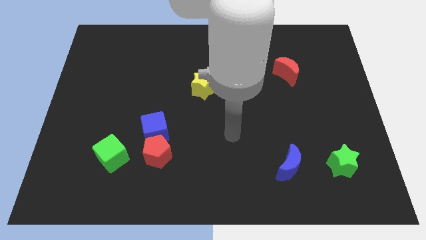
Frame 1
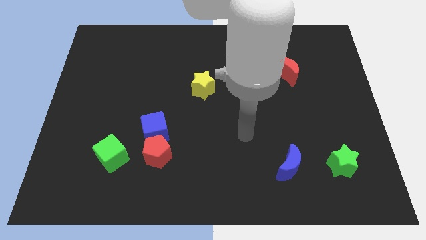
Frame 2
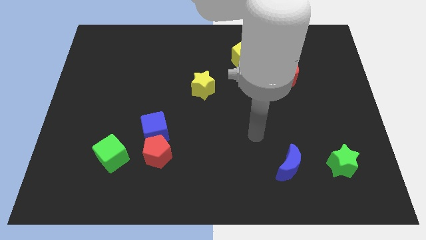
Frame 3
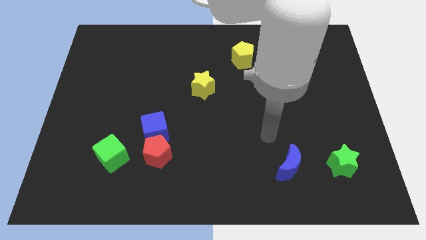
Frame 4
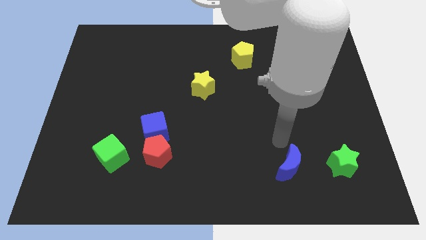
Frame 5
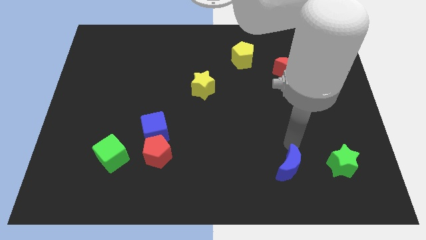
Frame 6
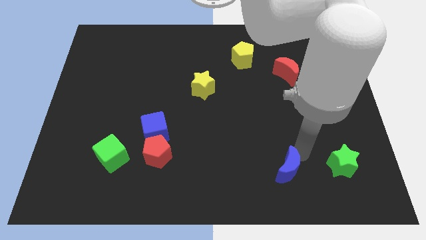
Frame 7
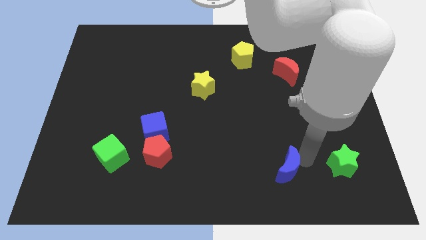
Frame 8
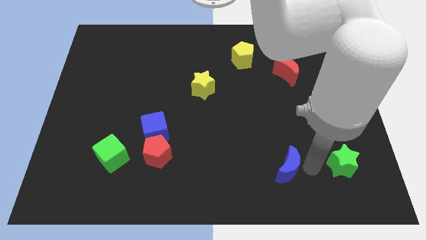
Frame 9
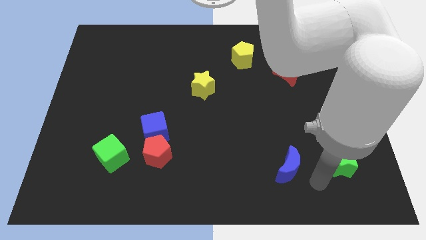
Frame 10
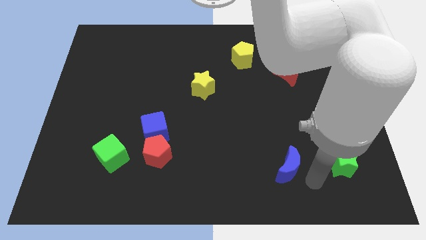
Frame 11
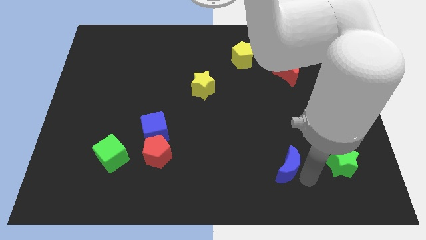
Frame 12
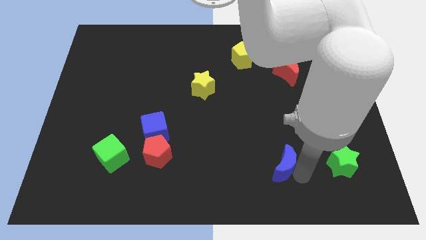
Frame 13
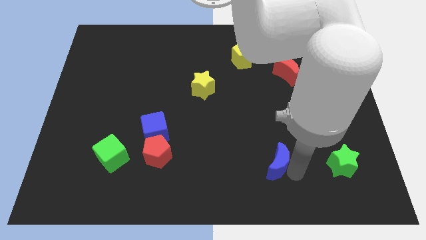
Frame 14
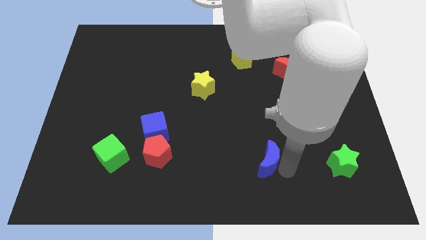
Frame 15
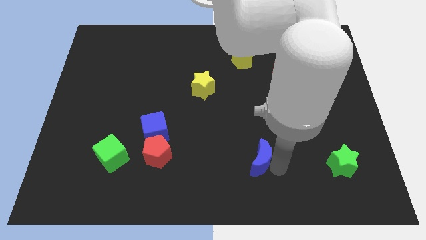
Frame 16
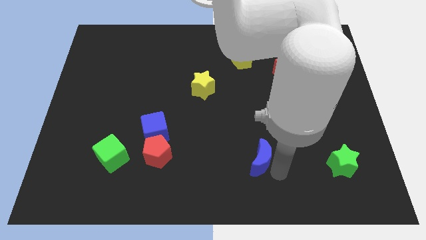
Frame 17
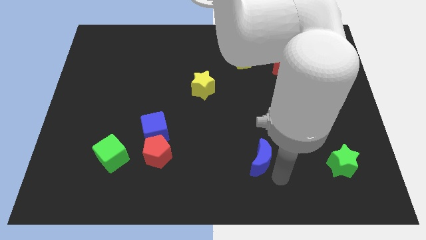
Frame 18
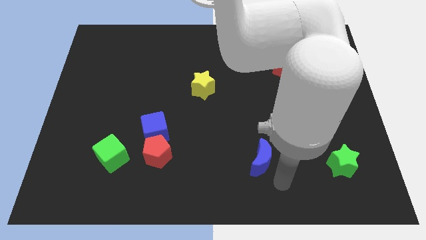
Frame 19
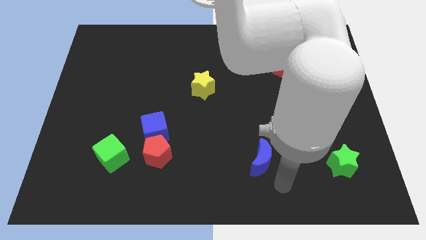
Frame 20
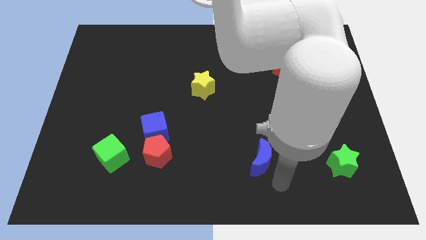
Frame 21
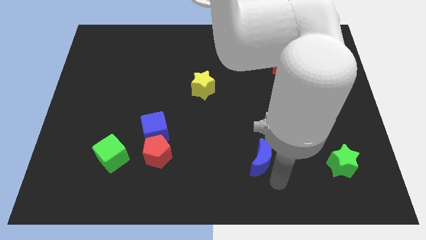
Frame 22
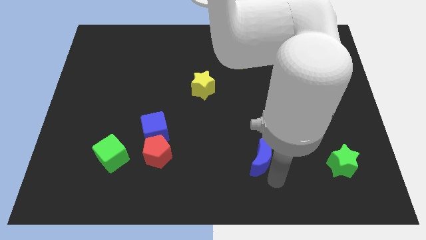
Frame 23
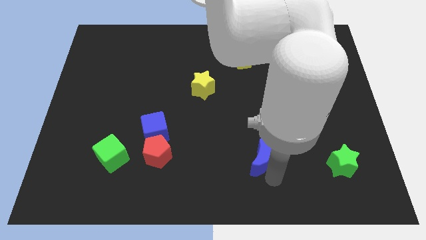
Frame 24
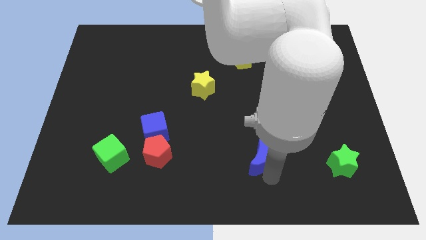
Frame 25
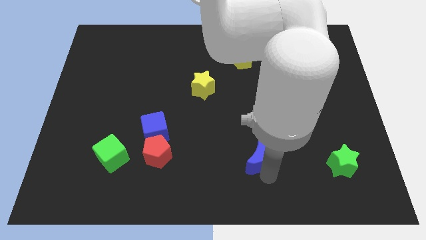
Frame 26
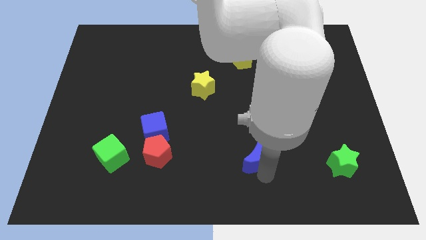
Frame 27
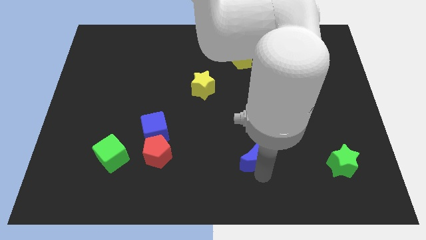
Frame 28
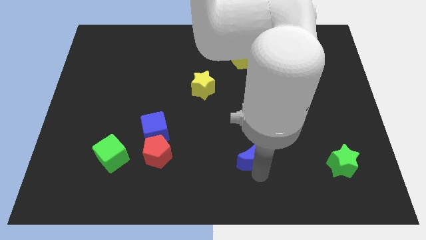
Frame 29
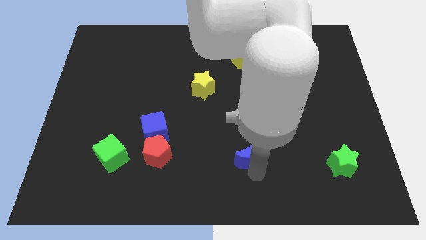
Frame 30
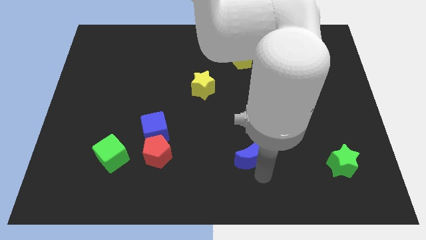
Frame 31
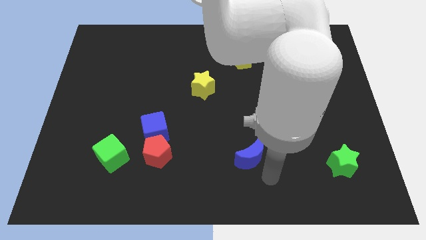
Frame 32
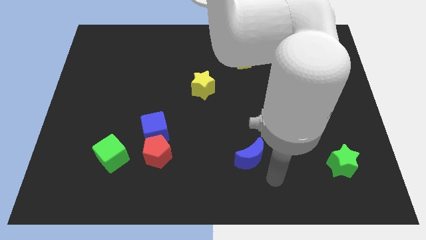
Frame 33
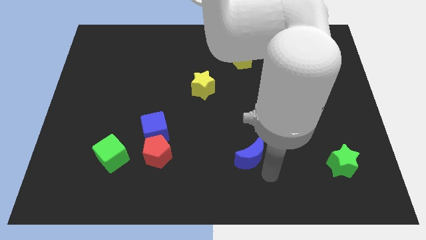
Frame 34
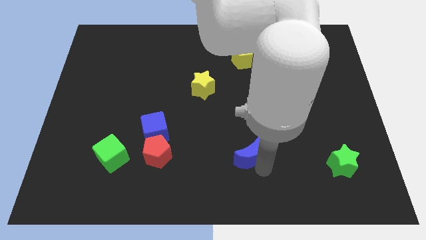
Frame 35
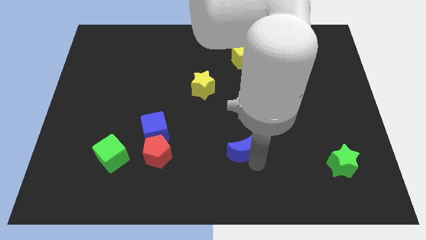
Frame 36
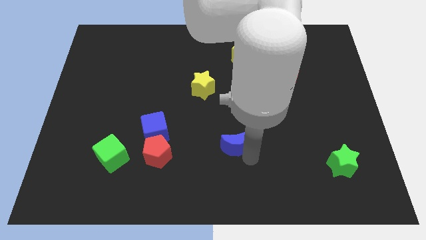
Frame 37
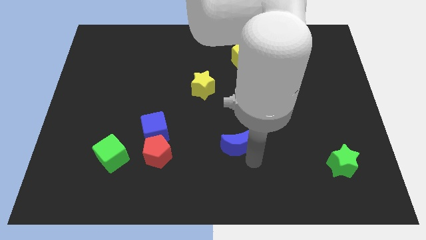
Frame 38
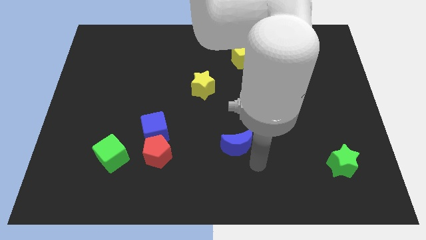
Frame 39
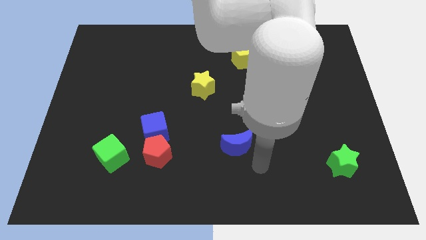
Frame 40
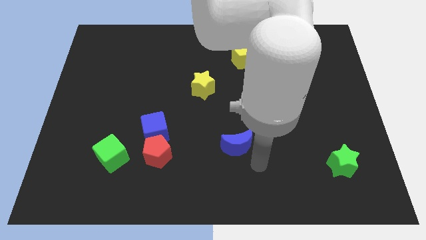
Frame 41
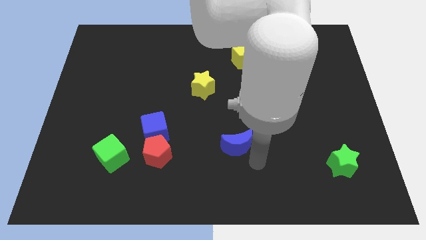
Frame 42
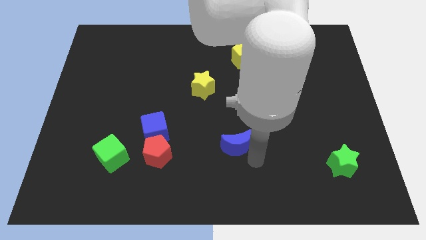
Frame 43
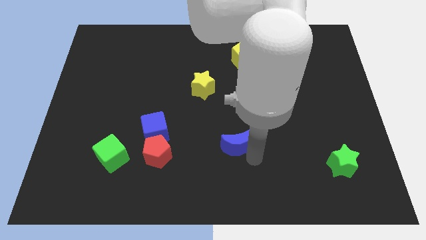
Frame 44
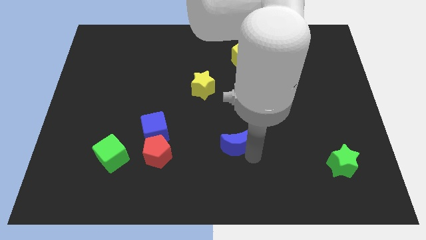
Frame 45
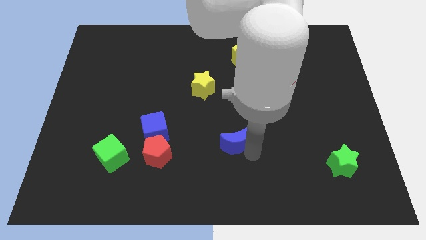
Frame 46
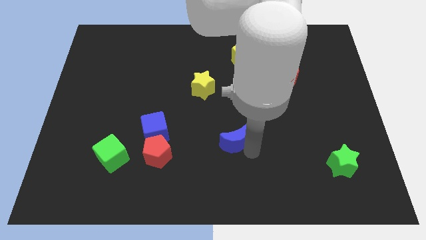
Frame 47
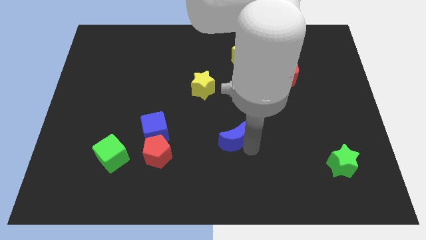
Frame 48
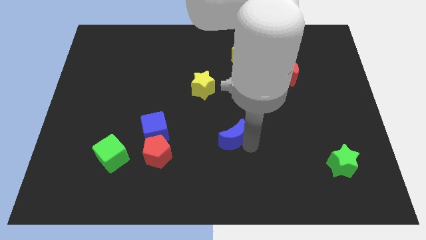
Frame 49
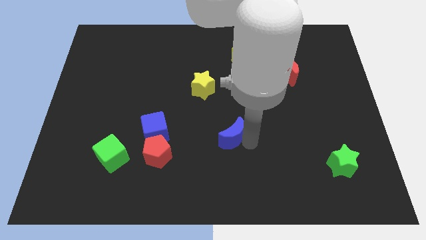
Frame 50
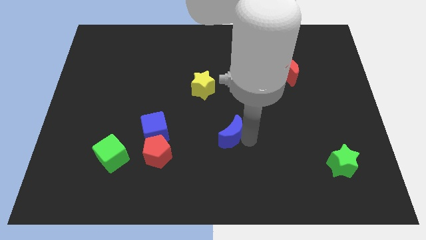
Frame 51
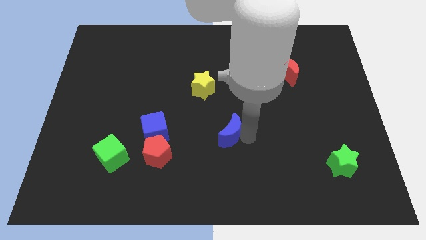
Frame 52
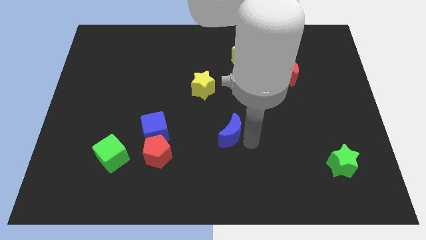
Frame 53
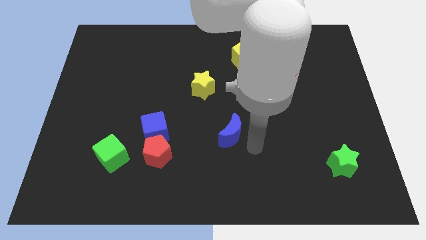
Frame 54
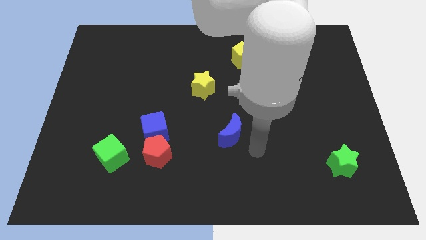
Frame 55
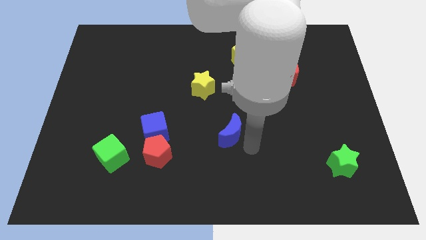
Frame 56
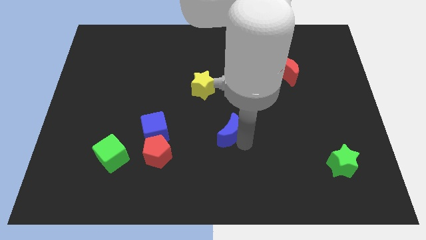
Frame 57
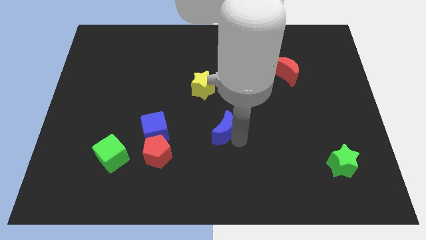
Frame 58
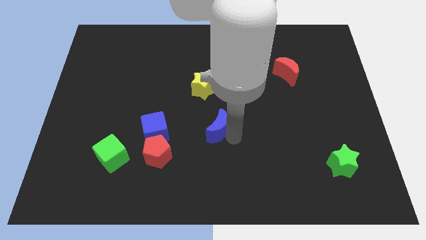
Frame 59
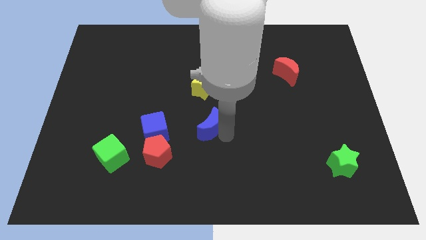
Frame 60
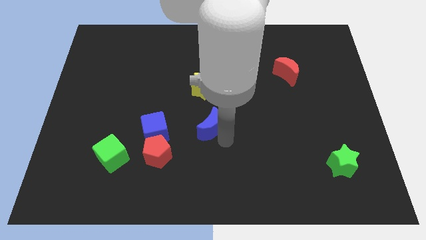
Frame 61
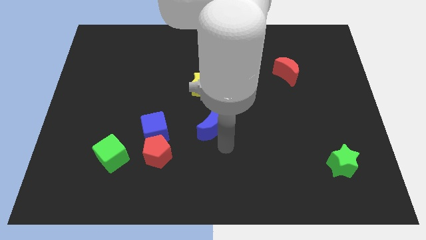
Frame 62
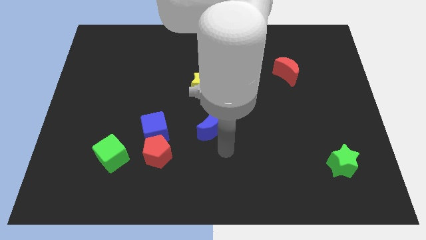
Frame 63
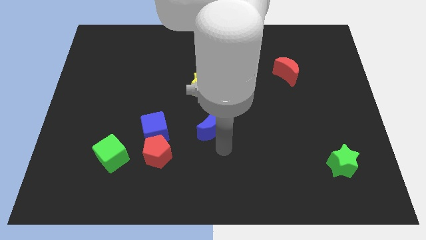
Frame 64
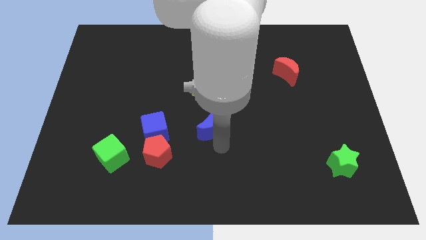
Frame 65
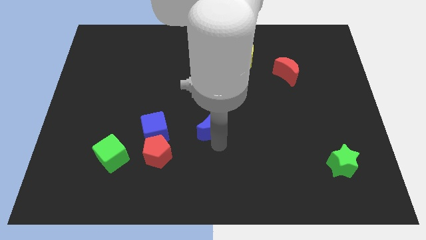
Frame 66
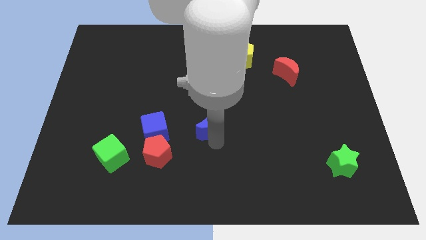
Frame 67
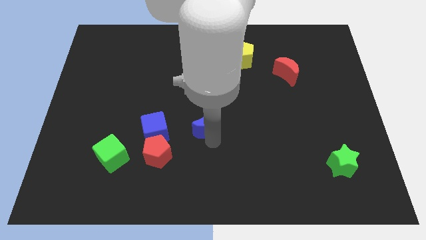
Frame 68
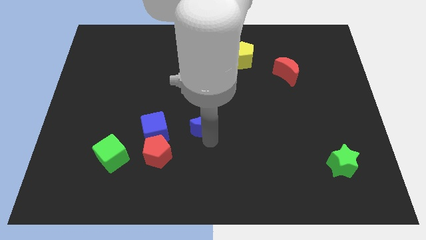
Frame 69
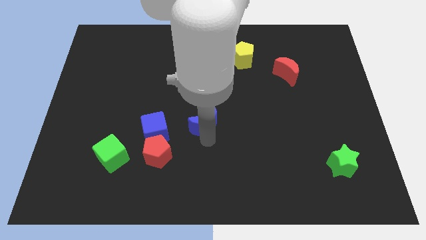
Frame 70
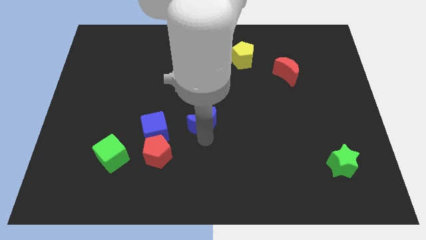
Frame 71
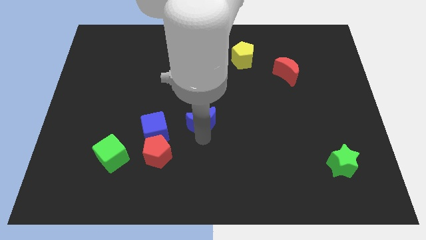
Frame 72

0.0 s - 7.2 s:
move the blue moon up and to the left diagonally
